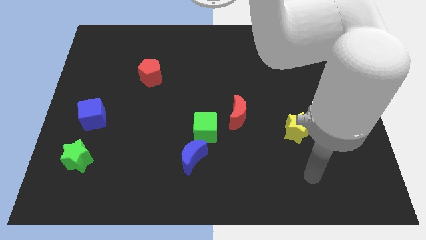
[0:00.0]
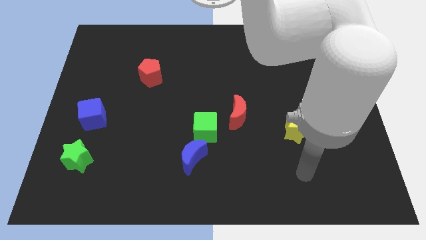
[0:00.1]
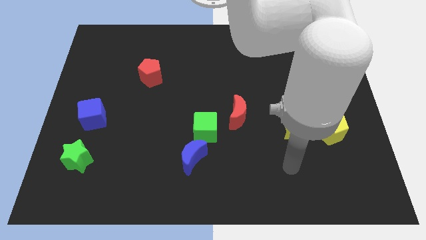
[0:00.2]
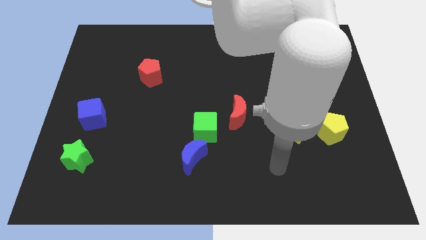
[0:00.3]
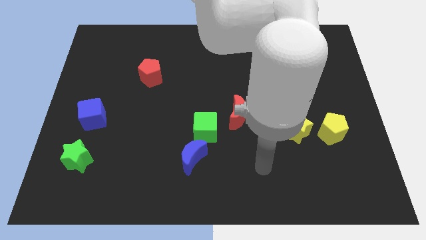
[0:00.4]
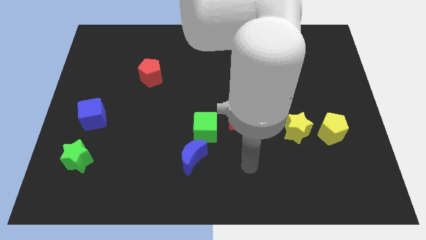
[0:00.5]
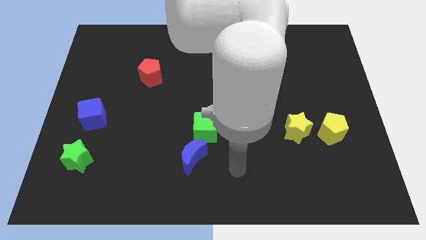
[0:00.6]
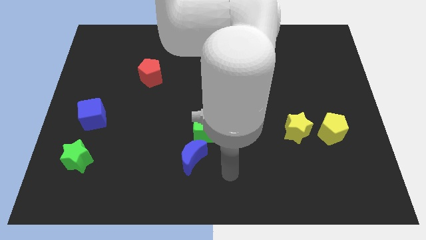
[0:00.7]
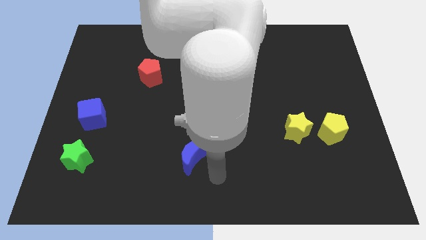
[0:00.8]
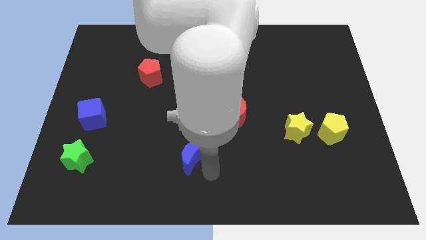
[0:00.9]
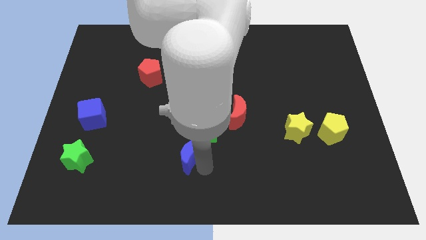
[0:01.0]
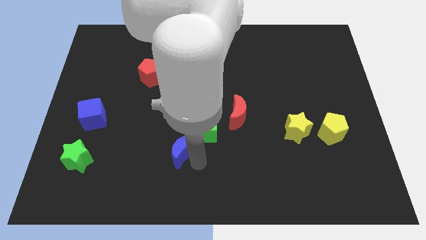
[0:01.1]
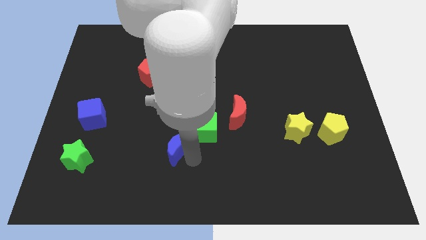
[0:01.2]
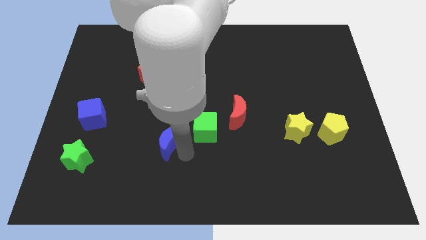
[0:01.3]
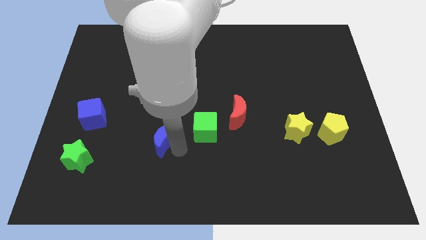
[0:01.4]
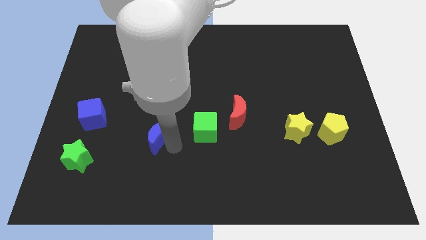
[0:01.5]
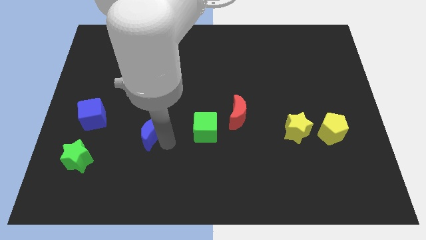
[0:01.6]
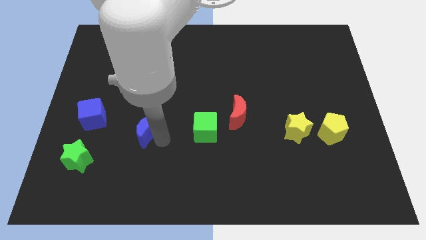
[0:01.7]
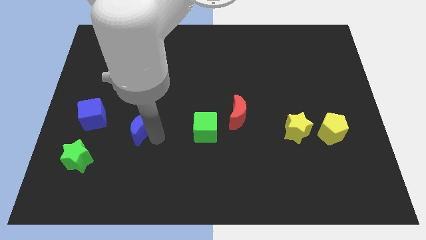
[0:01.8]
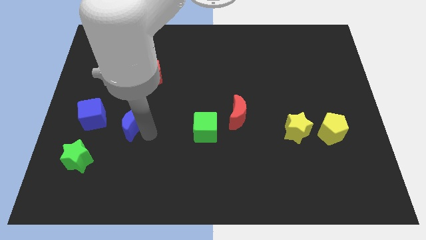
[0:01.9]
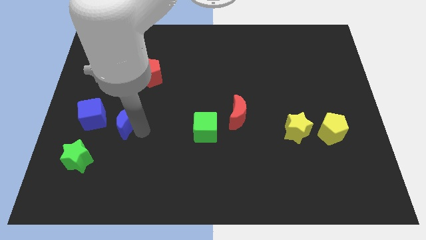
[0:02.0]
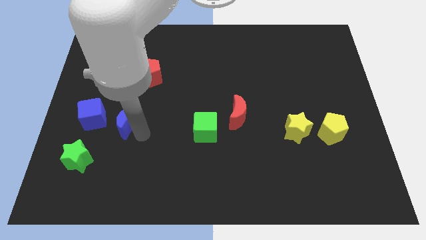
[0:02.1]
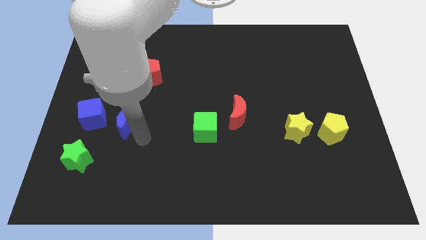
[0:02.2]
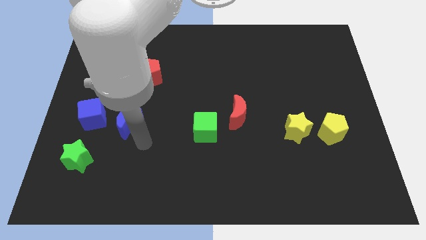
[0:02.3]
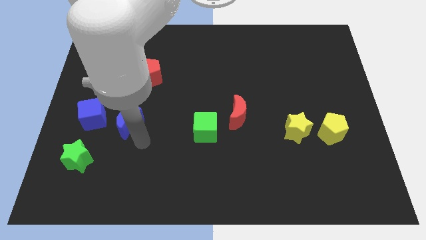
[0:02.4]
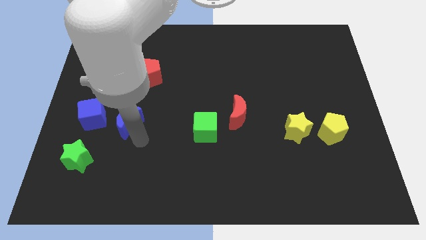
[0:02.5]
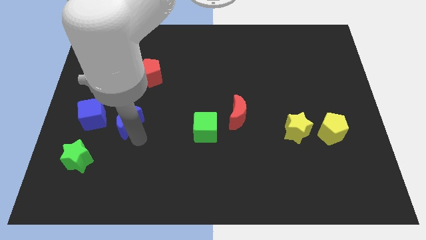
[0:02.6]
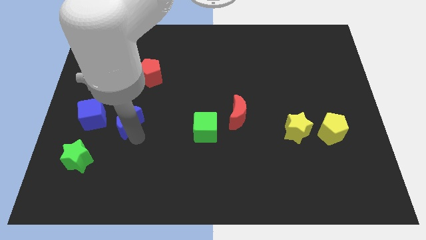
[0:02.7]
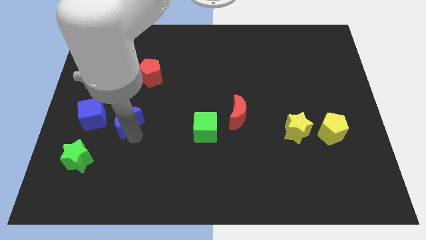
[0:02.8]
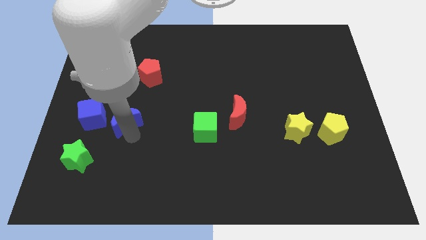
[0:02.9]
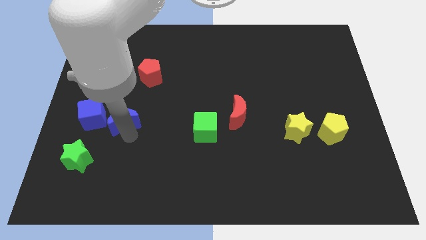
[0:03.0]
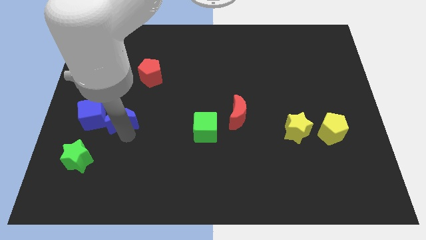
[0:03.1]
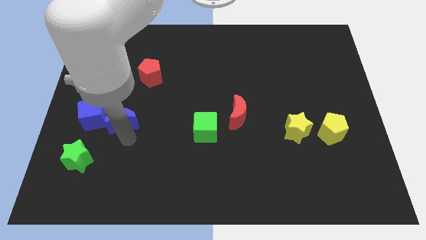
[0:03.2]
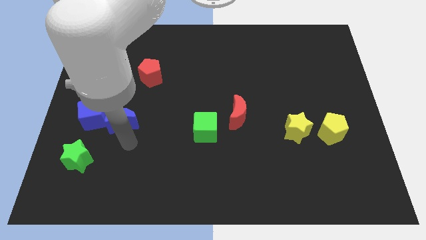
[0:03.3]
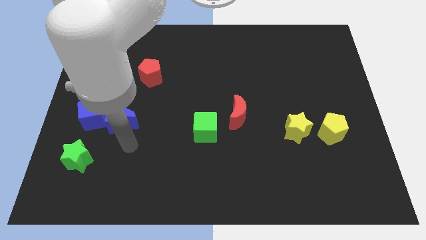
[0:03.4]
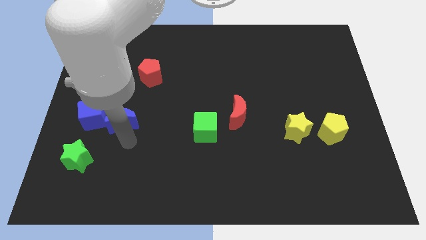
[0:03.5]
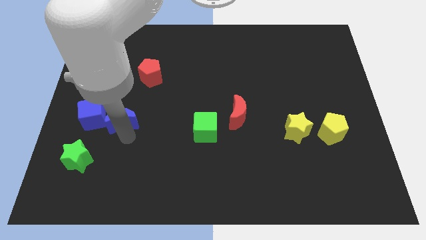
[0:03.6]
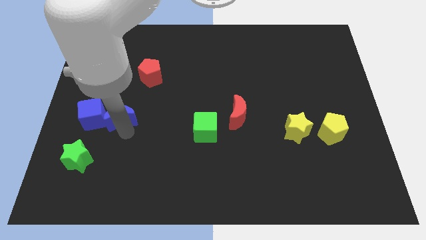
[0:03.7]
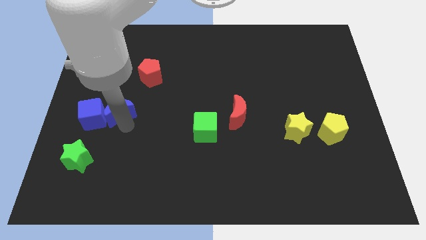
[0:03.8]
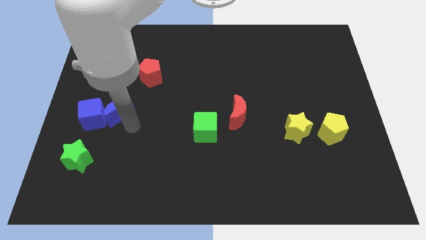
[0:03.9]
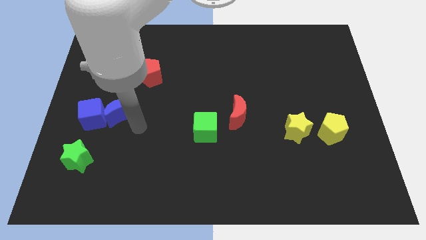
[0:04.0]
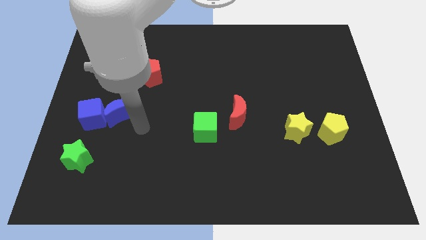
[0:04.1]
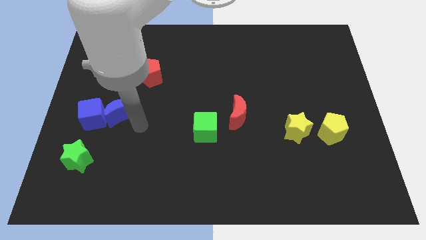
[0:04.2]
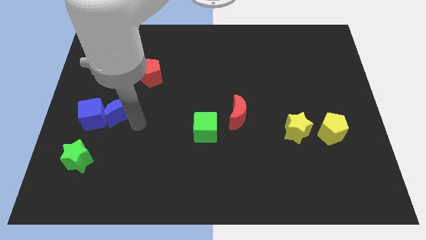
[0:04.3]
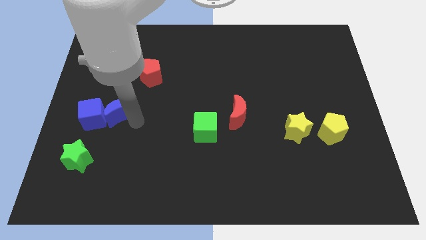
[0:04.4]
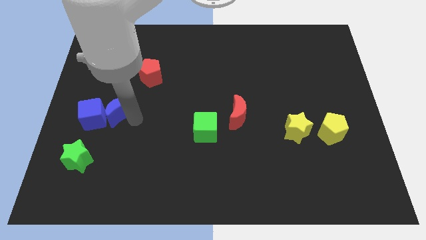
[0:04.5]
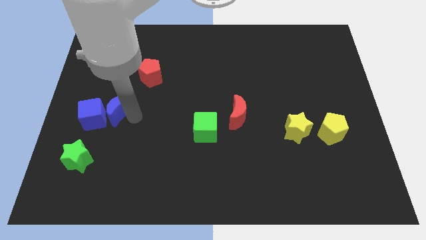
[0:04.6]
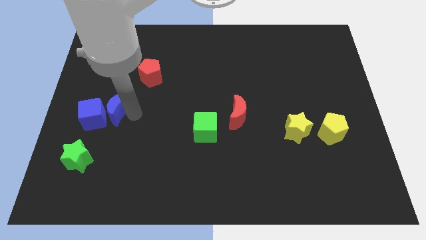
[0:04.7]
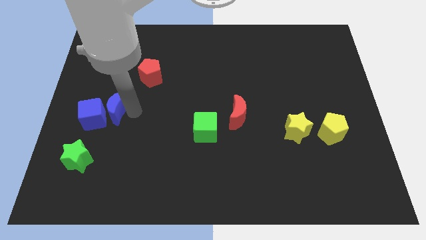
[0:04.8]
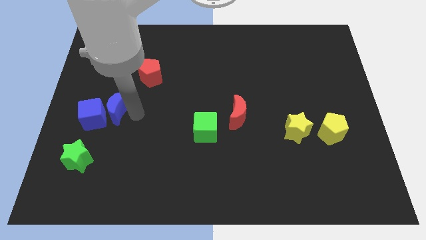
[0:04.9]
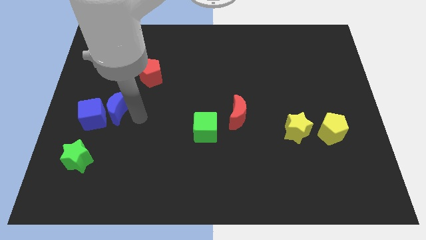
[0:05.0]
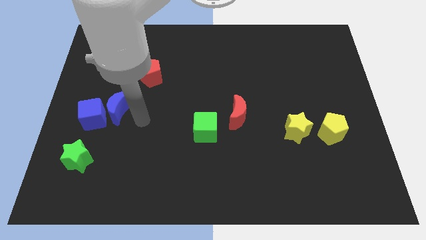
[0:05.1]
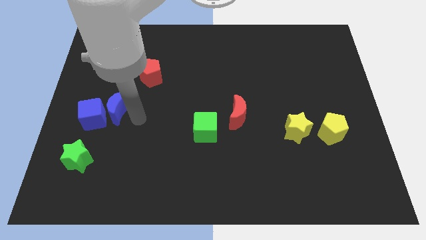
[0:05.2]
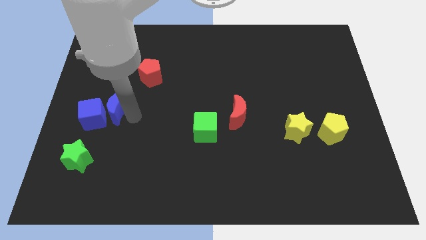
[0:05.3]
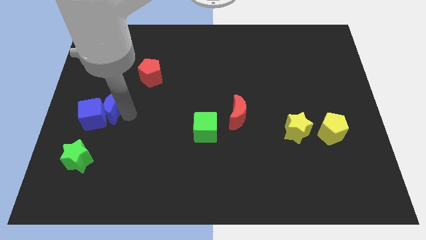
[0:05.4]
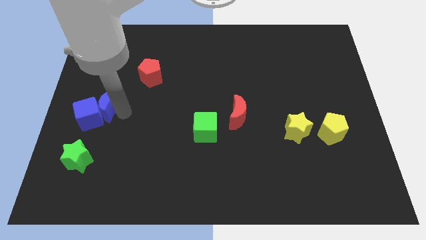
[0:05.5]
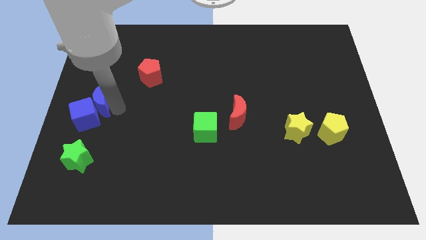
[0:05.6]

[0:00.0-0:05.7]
push the blue moon to the left side of the board

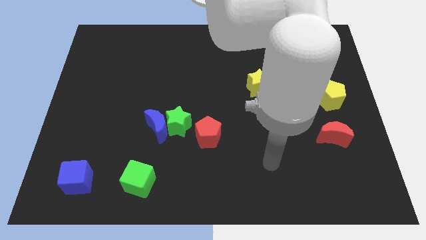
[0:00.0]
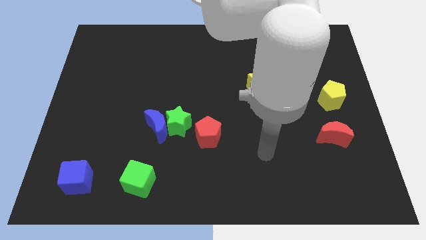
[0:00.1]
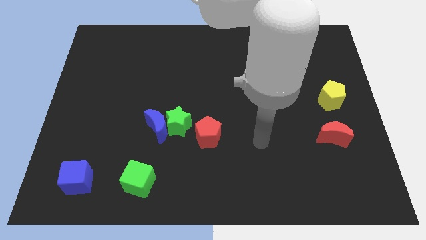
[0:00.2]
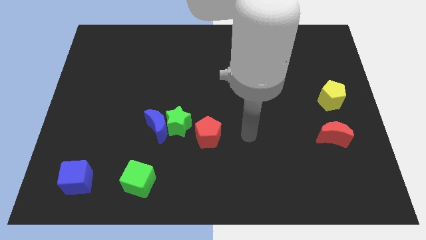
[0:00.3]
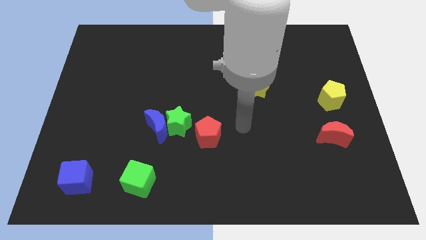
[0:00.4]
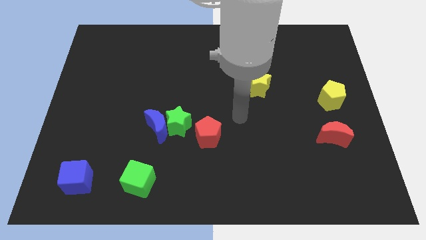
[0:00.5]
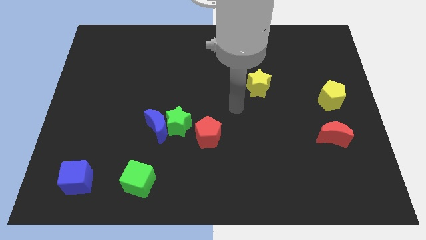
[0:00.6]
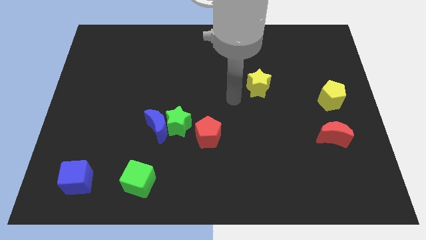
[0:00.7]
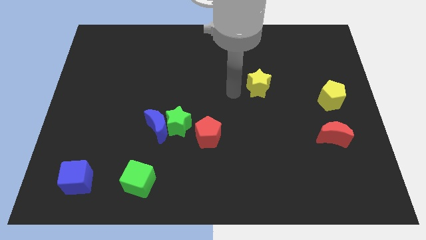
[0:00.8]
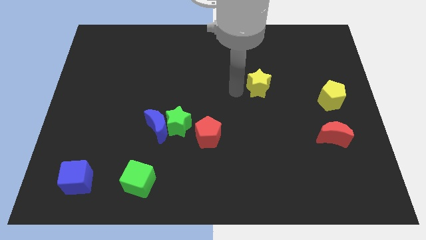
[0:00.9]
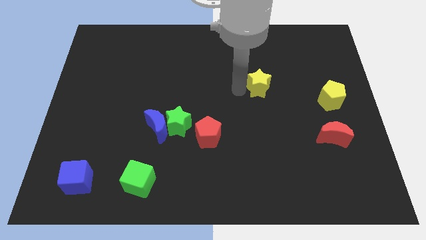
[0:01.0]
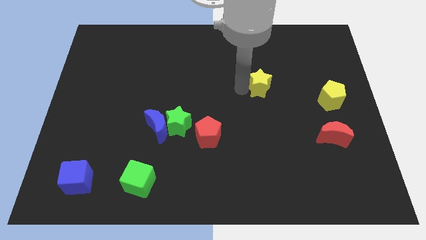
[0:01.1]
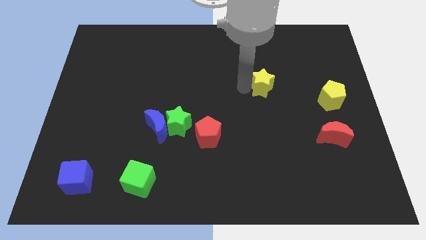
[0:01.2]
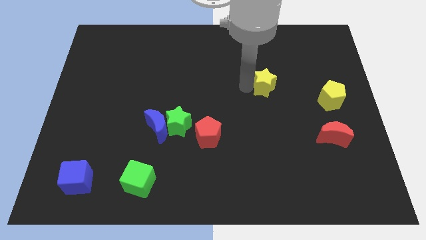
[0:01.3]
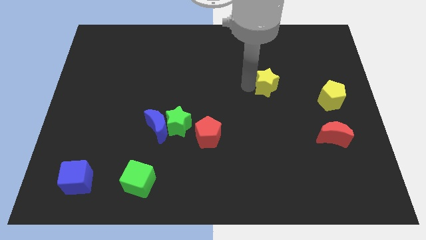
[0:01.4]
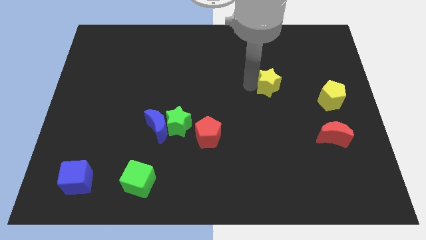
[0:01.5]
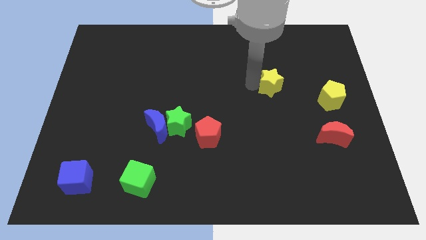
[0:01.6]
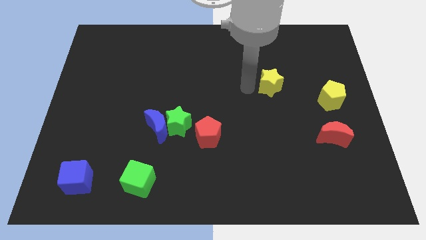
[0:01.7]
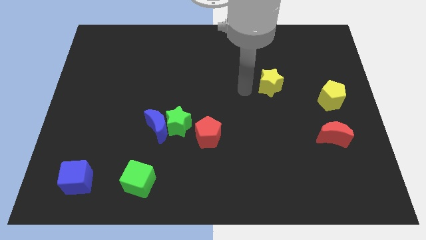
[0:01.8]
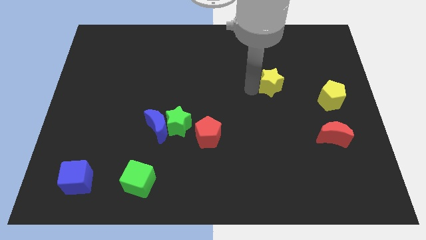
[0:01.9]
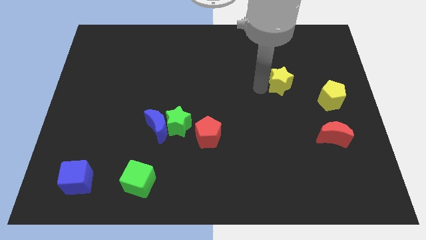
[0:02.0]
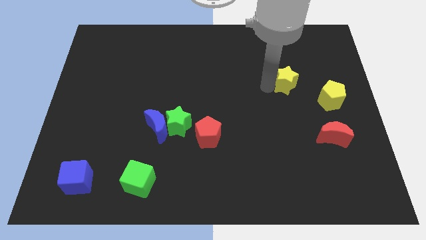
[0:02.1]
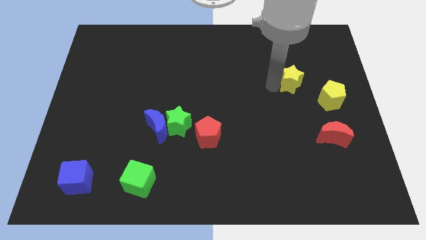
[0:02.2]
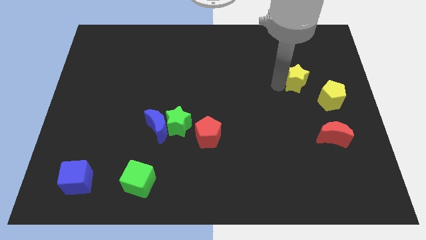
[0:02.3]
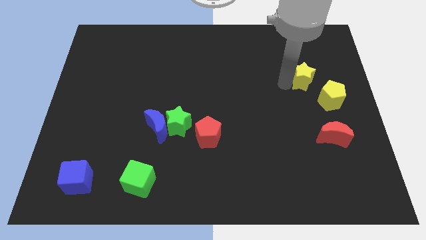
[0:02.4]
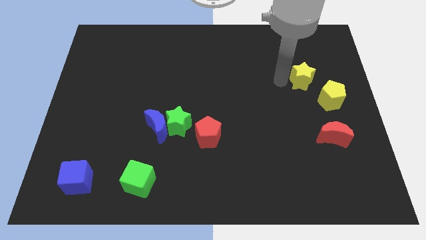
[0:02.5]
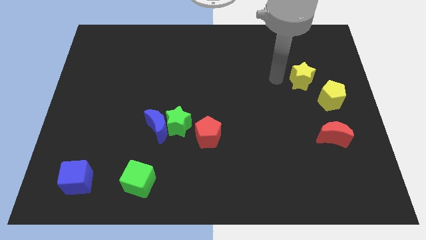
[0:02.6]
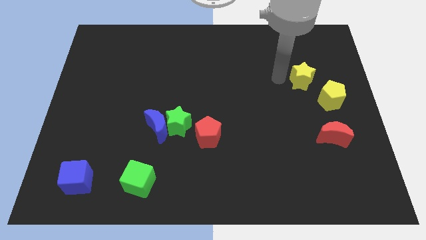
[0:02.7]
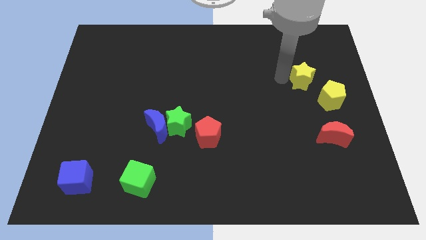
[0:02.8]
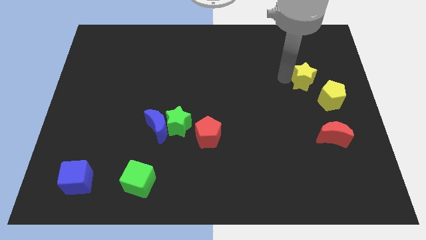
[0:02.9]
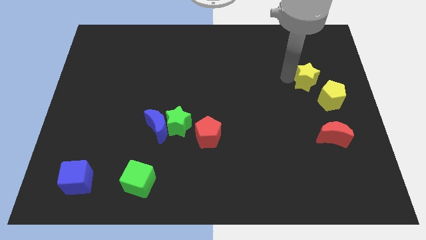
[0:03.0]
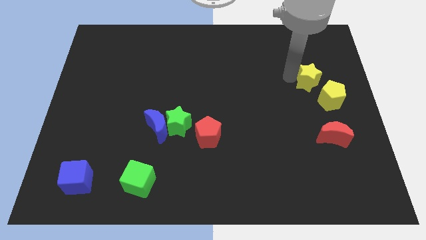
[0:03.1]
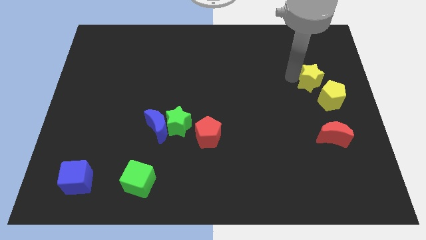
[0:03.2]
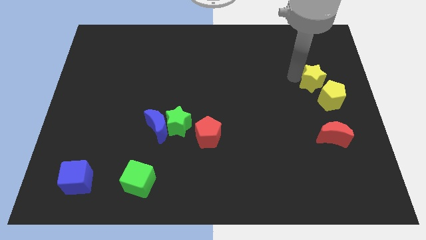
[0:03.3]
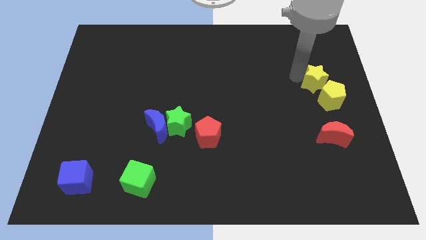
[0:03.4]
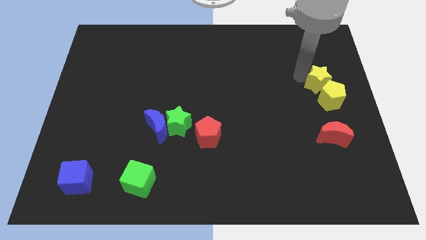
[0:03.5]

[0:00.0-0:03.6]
slide the yellow star to the center right
